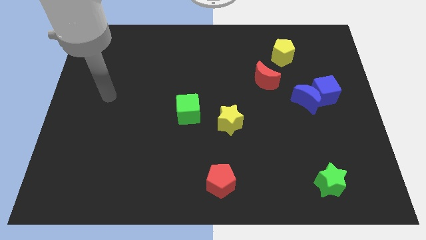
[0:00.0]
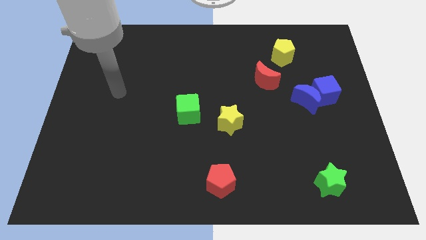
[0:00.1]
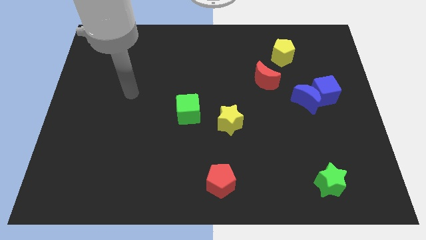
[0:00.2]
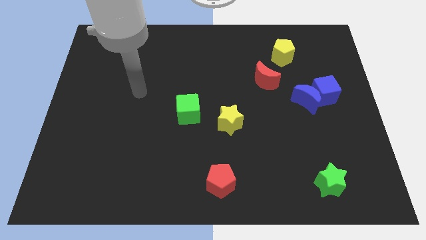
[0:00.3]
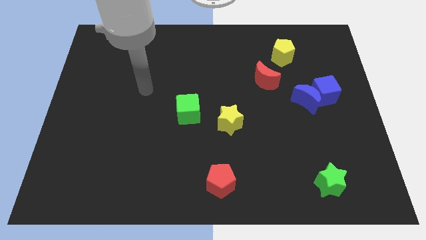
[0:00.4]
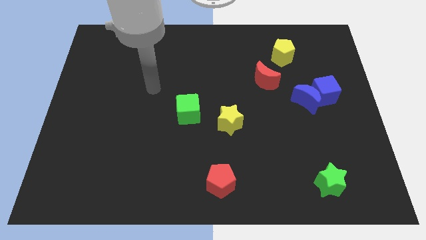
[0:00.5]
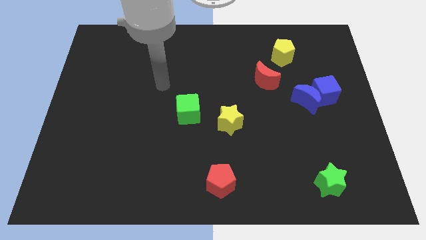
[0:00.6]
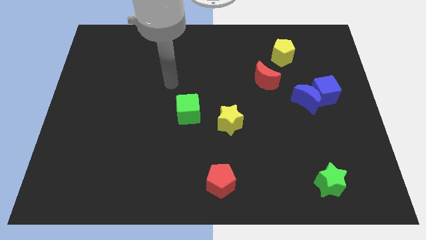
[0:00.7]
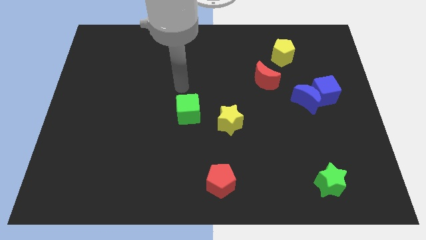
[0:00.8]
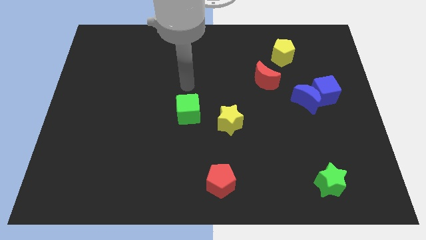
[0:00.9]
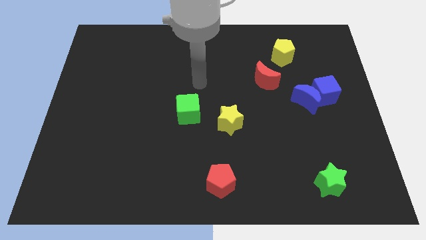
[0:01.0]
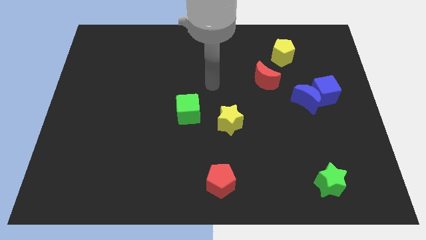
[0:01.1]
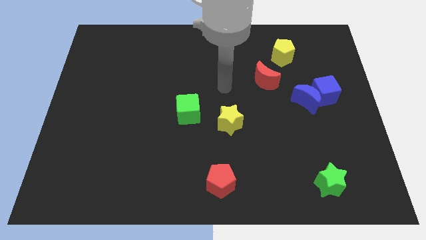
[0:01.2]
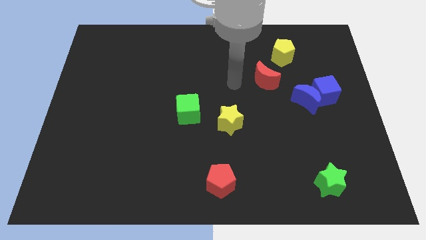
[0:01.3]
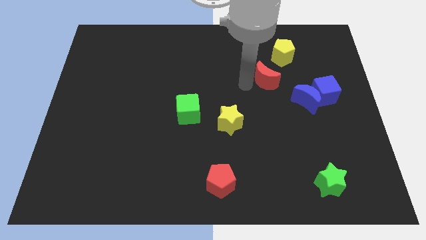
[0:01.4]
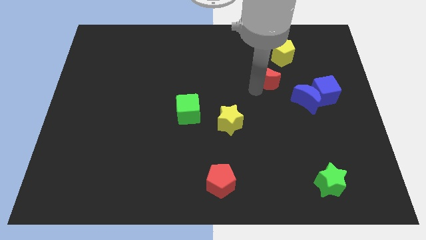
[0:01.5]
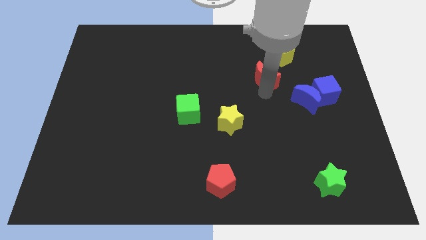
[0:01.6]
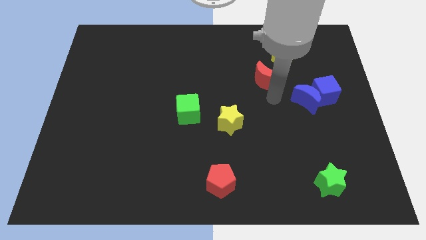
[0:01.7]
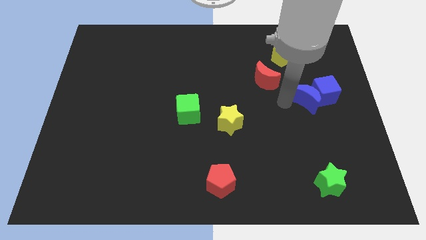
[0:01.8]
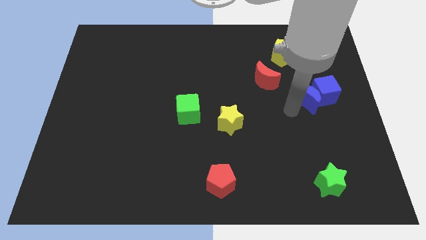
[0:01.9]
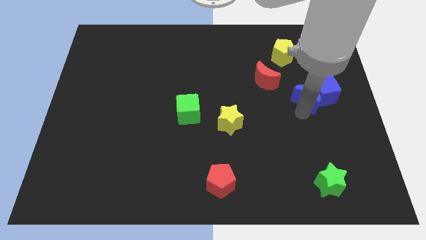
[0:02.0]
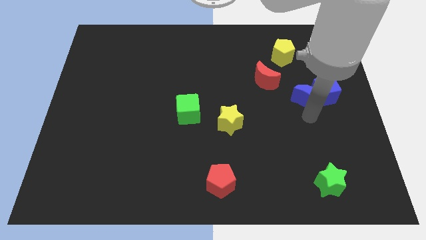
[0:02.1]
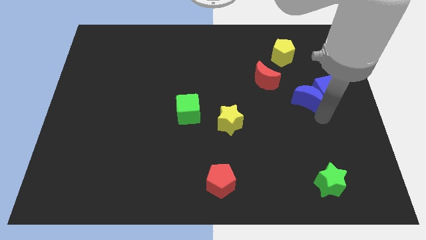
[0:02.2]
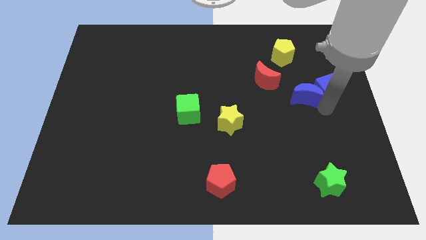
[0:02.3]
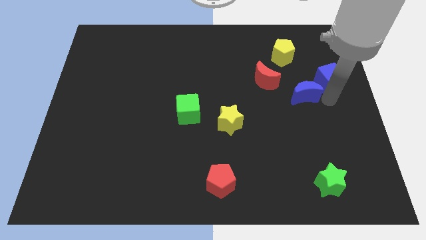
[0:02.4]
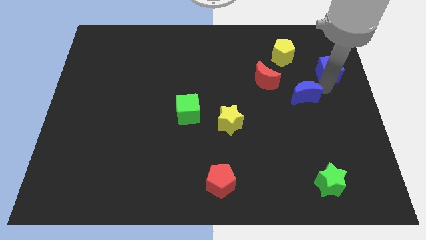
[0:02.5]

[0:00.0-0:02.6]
separate the blue moon from the blue cube

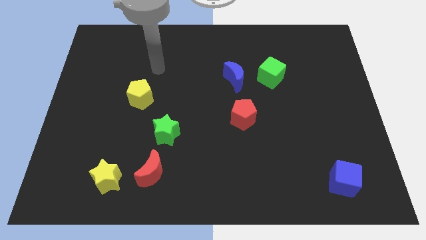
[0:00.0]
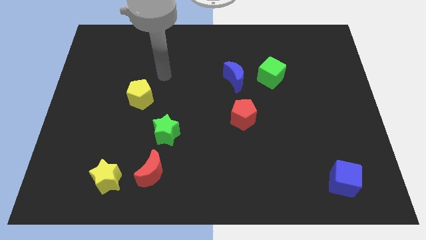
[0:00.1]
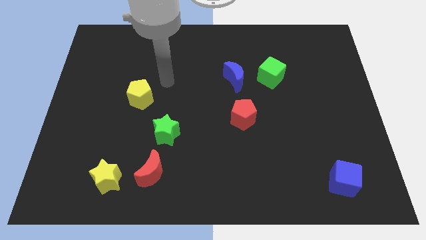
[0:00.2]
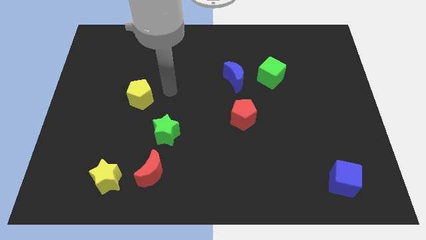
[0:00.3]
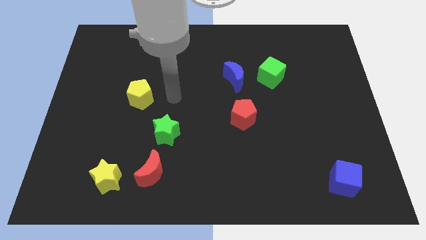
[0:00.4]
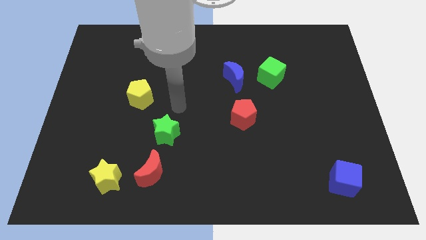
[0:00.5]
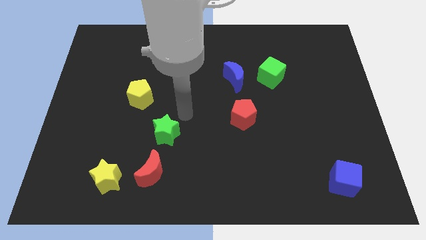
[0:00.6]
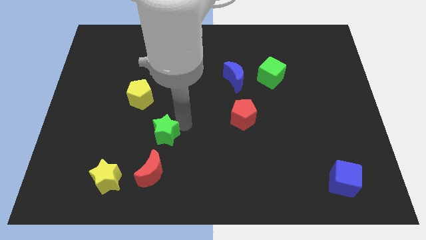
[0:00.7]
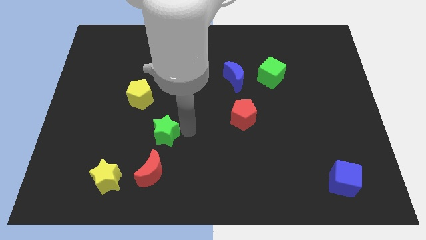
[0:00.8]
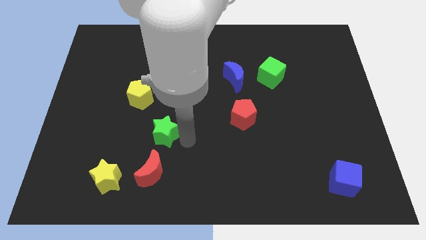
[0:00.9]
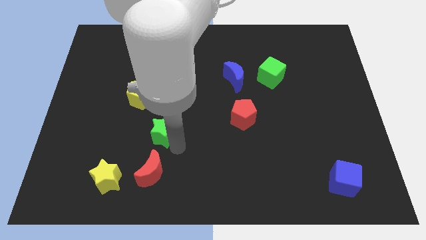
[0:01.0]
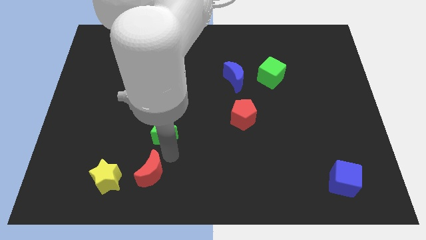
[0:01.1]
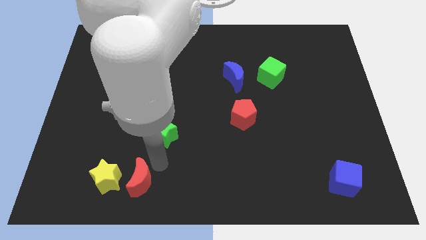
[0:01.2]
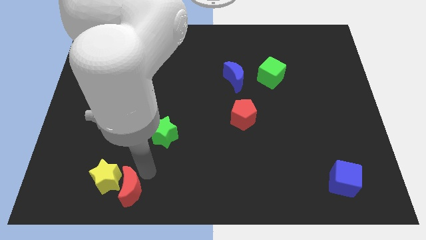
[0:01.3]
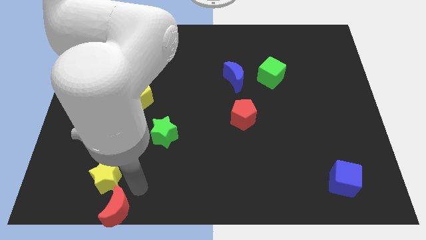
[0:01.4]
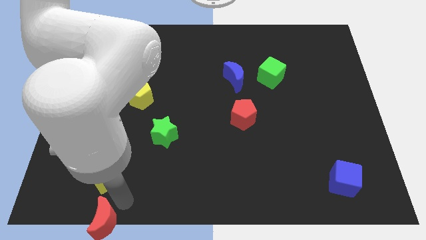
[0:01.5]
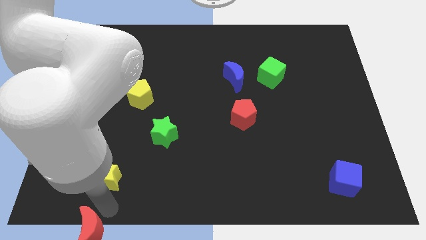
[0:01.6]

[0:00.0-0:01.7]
move the yellow star away from the red moon

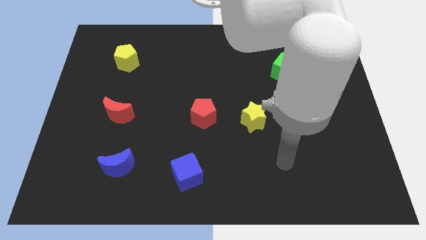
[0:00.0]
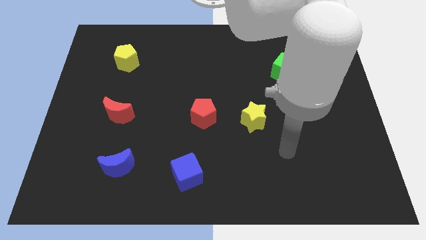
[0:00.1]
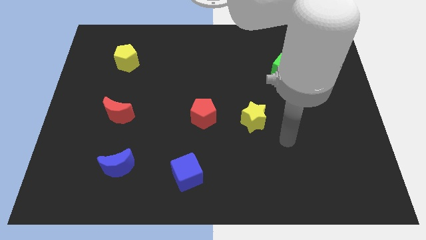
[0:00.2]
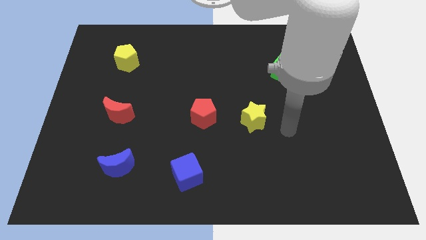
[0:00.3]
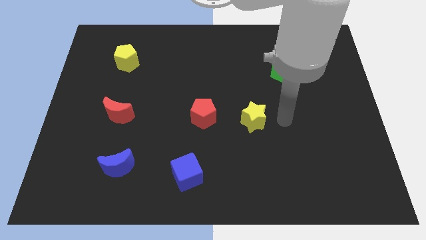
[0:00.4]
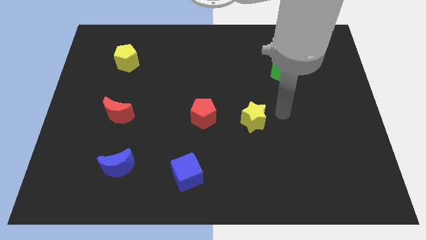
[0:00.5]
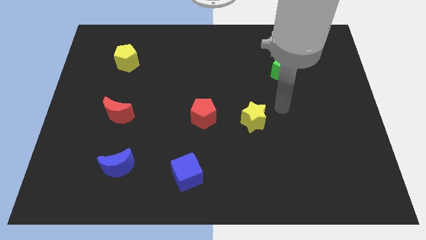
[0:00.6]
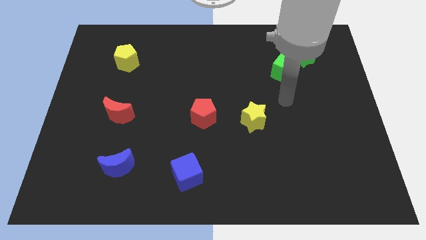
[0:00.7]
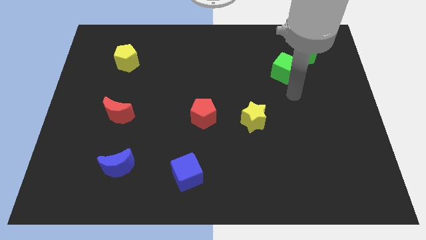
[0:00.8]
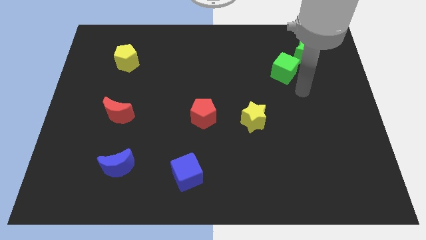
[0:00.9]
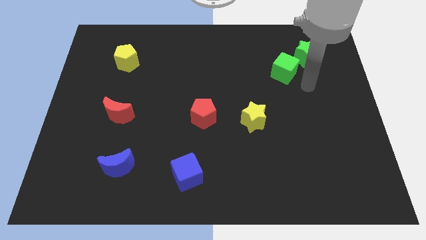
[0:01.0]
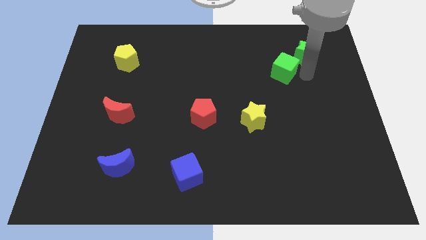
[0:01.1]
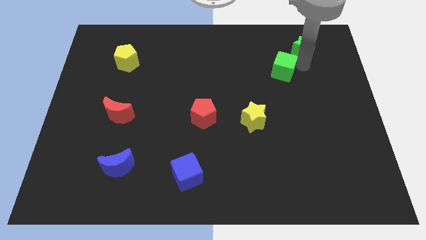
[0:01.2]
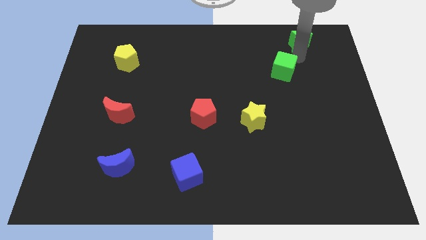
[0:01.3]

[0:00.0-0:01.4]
move the green cube away from the green star

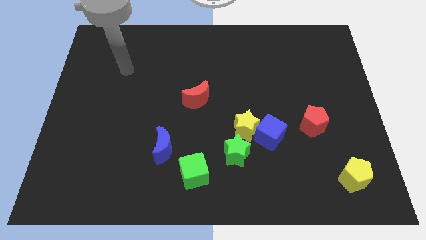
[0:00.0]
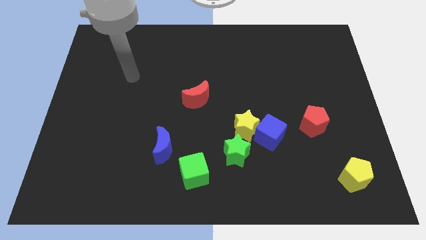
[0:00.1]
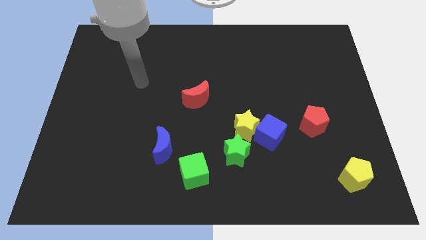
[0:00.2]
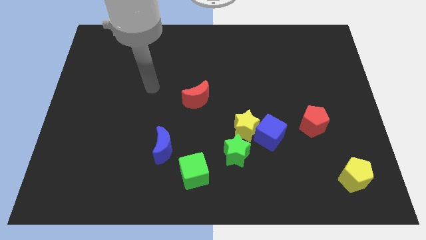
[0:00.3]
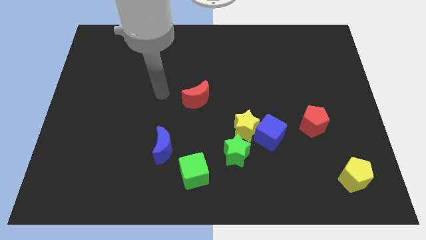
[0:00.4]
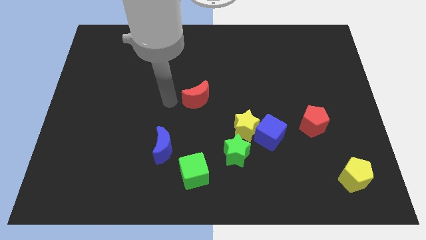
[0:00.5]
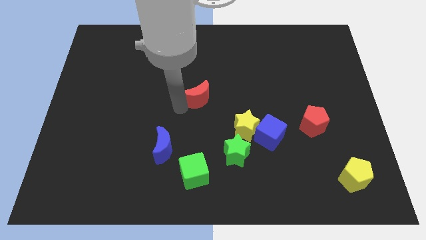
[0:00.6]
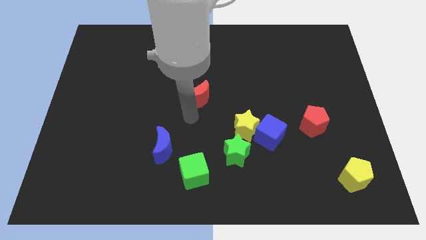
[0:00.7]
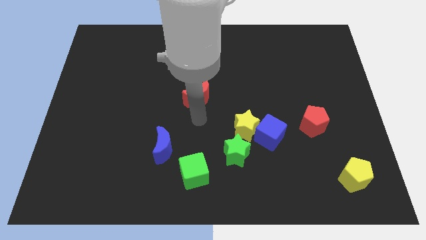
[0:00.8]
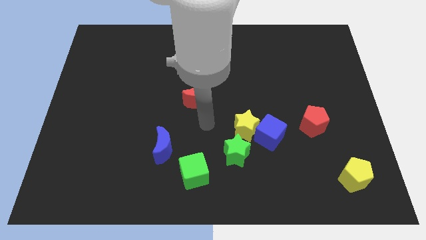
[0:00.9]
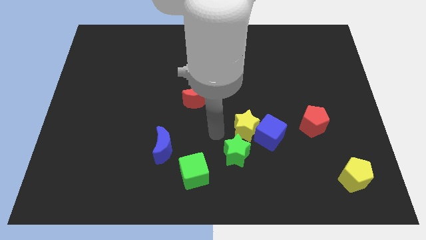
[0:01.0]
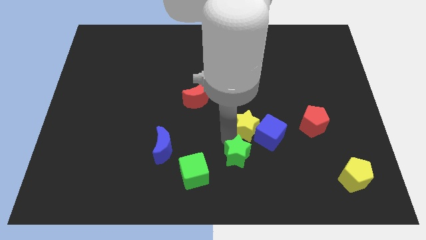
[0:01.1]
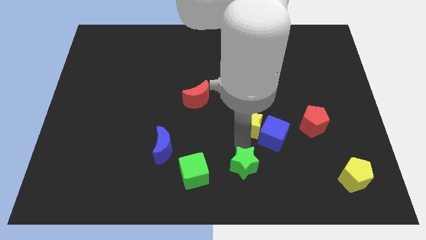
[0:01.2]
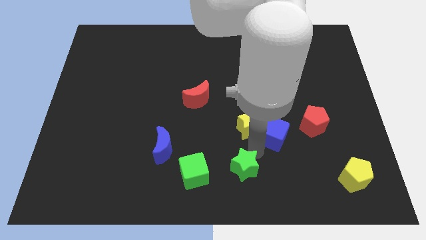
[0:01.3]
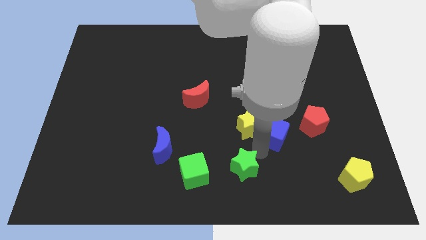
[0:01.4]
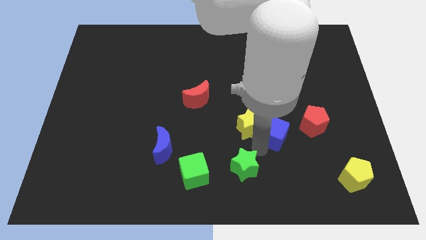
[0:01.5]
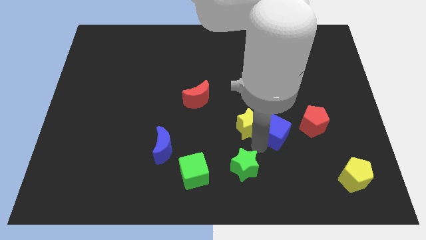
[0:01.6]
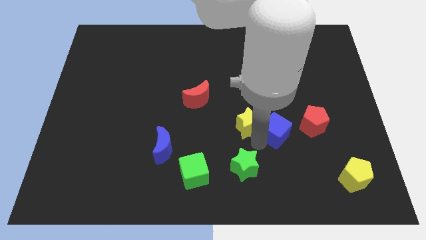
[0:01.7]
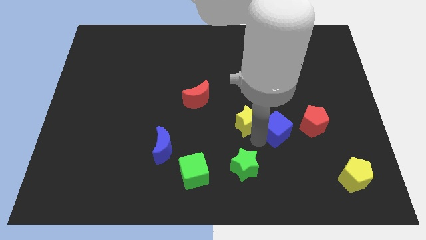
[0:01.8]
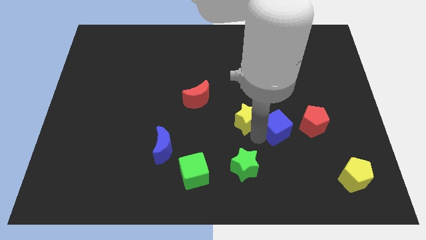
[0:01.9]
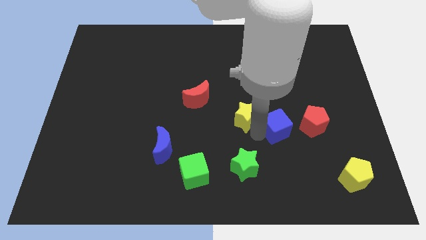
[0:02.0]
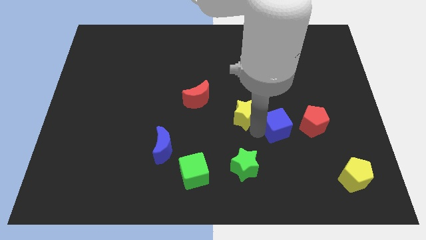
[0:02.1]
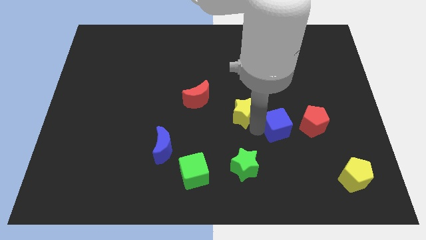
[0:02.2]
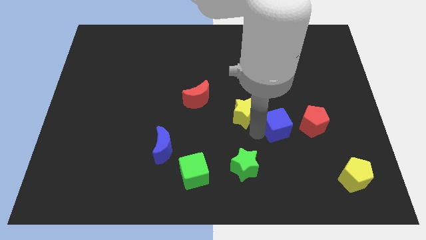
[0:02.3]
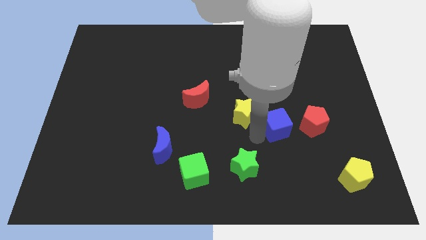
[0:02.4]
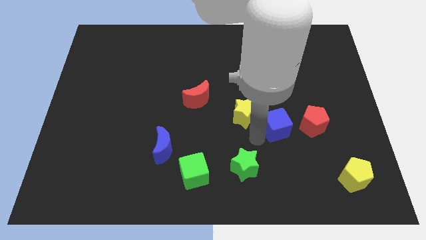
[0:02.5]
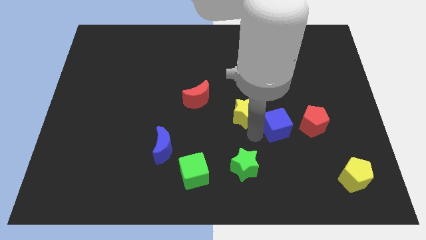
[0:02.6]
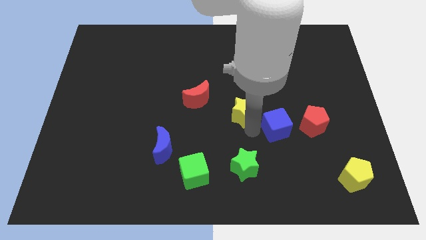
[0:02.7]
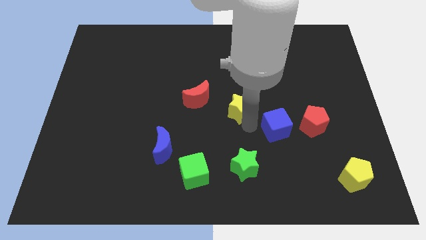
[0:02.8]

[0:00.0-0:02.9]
separate the yellow star from the blue cube and green star

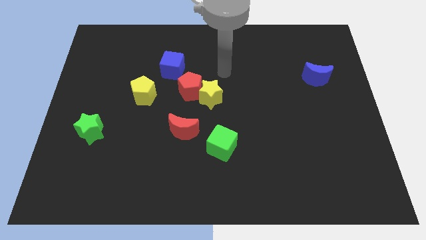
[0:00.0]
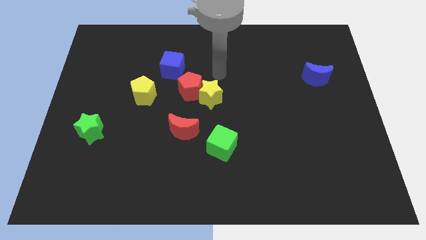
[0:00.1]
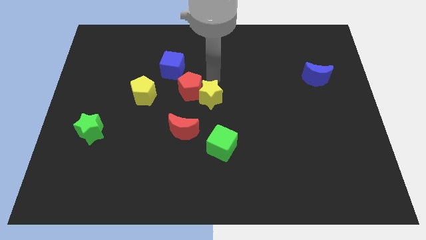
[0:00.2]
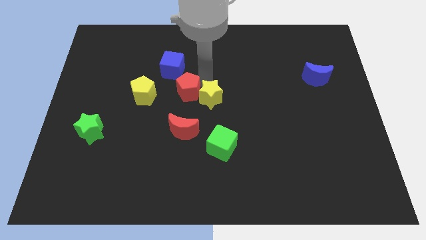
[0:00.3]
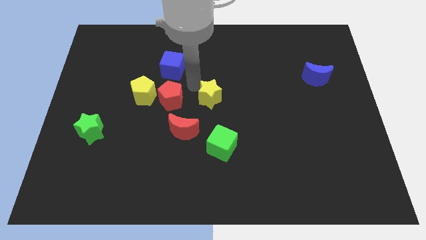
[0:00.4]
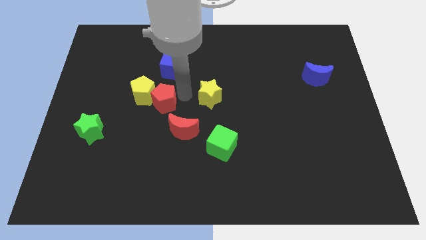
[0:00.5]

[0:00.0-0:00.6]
pull the yellow star apart from the red pentagon
